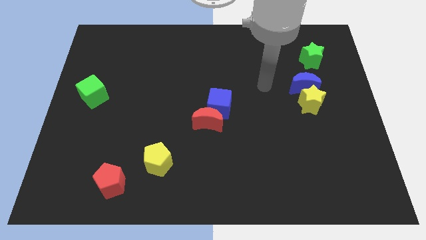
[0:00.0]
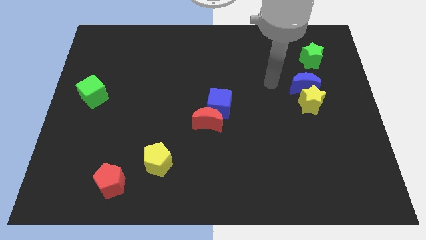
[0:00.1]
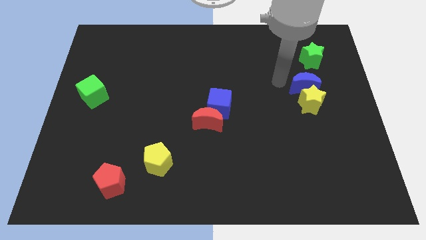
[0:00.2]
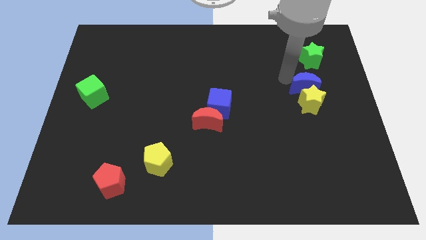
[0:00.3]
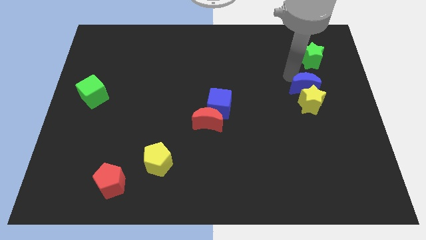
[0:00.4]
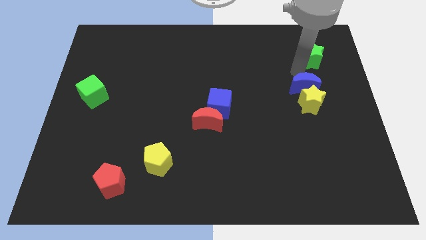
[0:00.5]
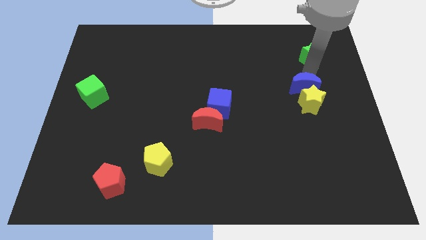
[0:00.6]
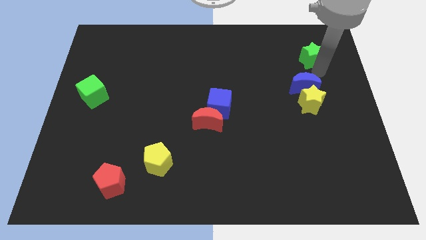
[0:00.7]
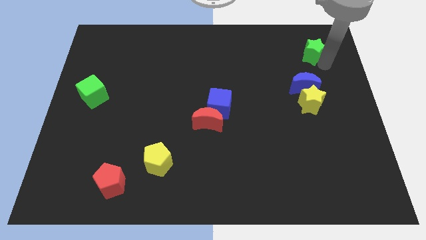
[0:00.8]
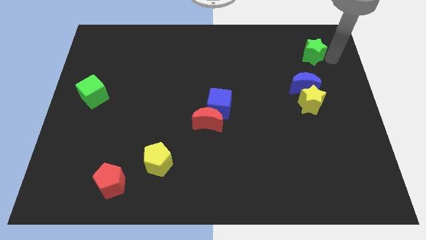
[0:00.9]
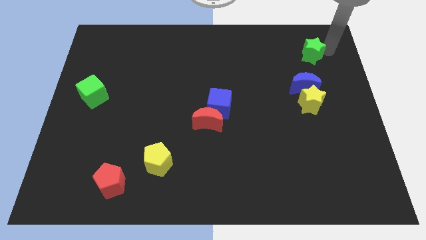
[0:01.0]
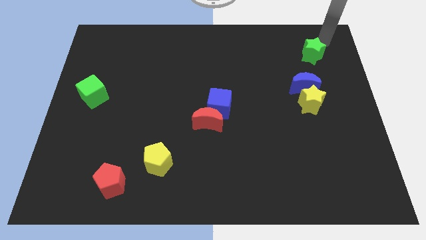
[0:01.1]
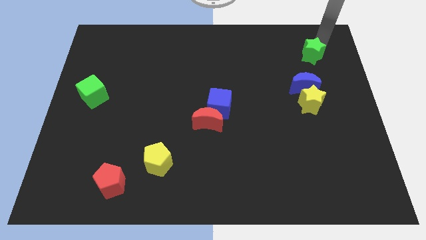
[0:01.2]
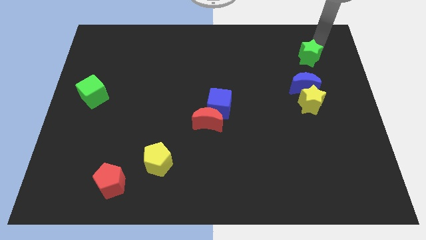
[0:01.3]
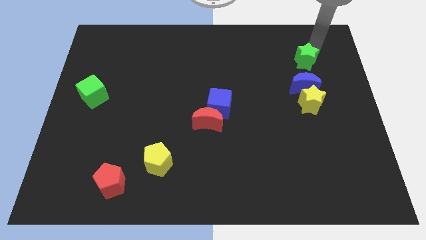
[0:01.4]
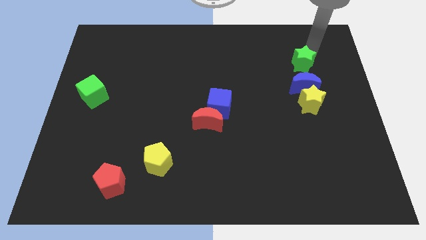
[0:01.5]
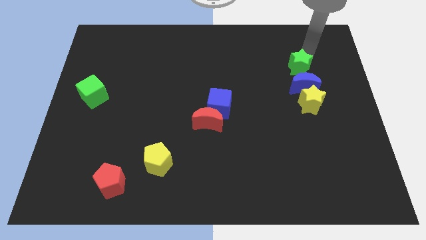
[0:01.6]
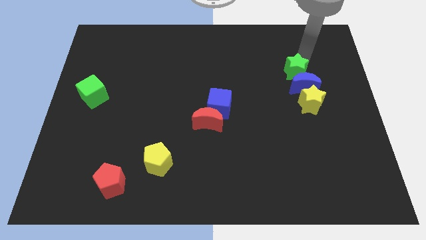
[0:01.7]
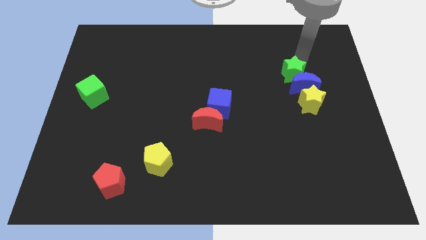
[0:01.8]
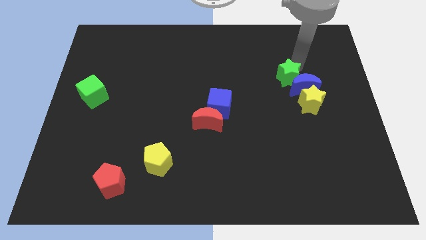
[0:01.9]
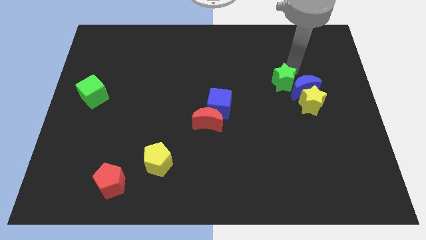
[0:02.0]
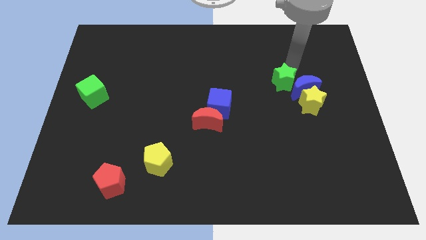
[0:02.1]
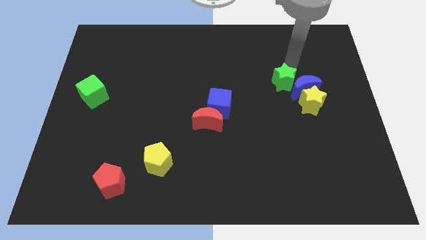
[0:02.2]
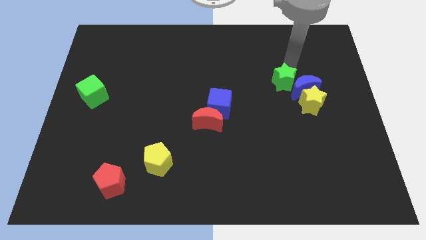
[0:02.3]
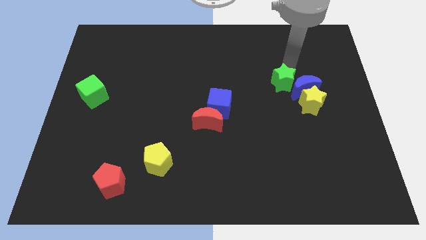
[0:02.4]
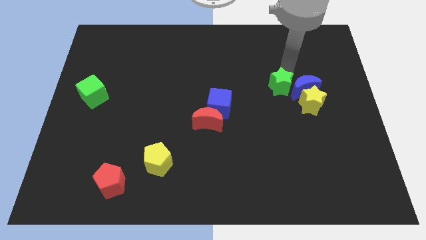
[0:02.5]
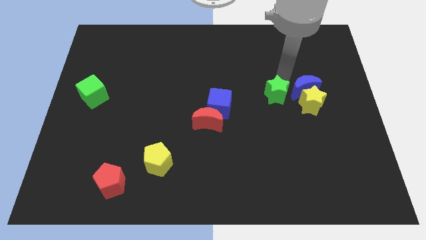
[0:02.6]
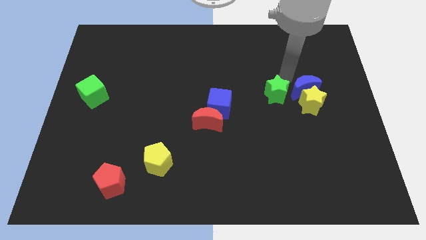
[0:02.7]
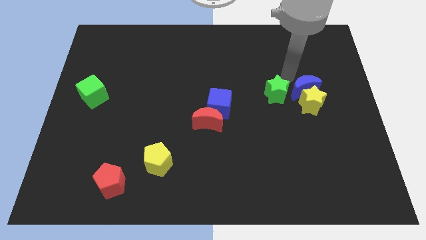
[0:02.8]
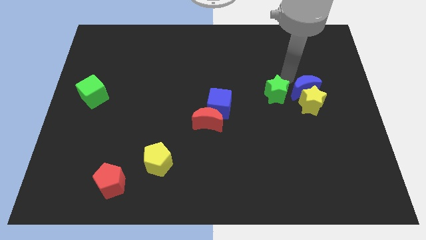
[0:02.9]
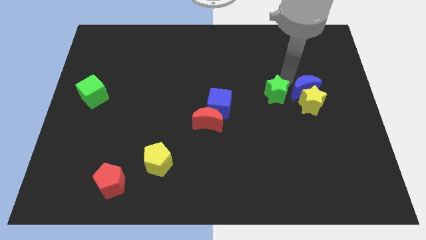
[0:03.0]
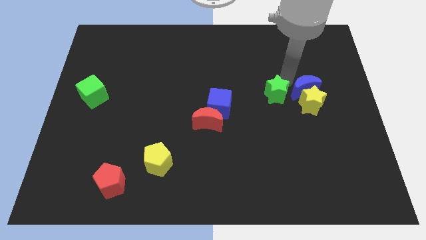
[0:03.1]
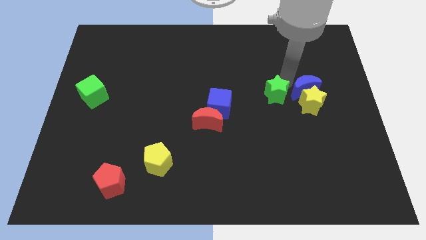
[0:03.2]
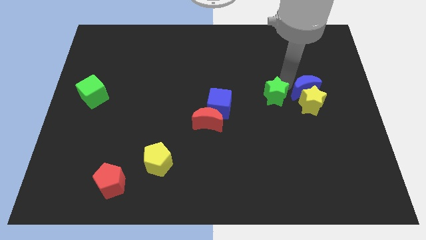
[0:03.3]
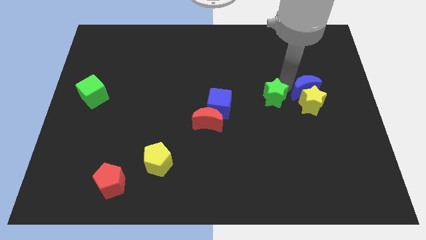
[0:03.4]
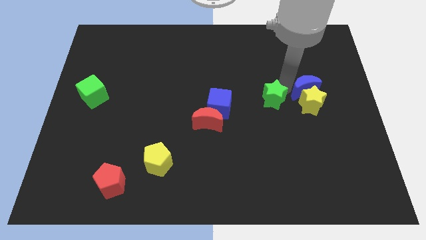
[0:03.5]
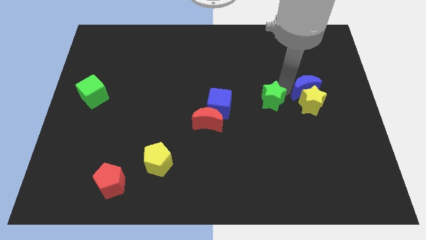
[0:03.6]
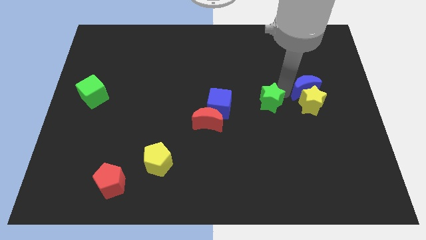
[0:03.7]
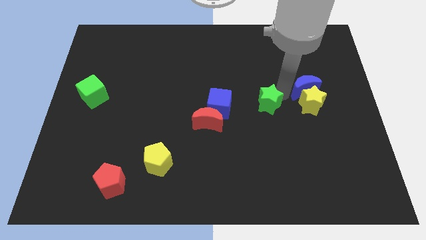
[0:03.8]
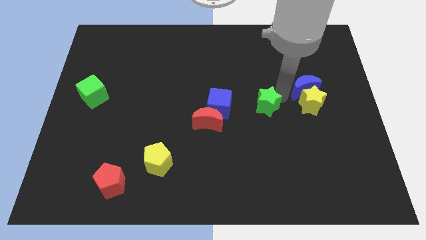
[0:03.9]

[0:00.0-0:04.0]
move the green star downwards and then to the left

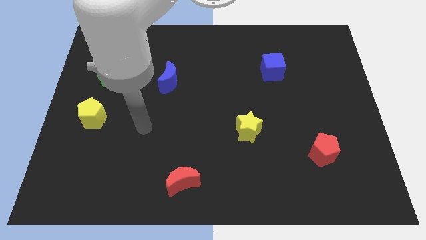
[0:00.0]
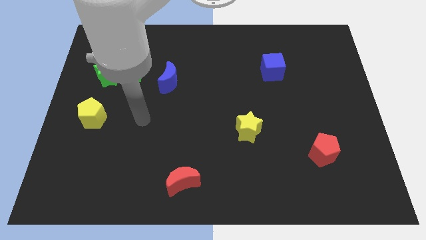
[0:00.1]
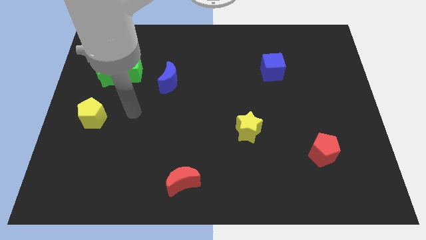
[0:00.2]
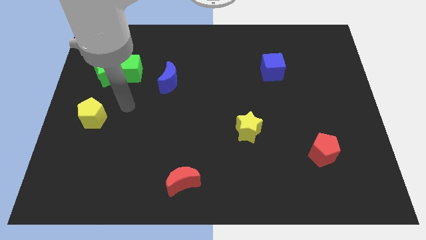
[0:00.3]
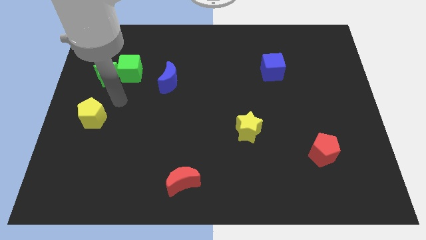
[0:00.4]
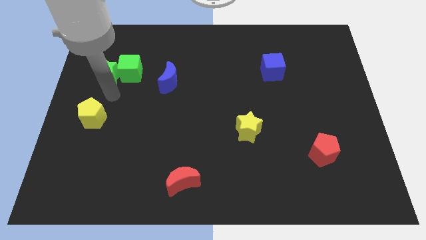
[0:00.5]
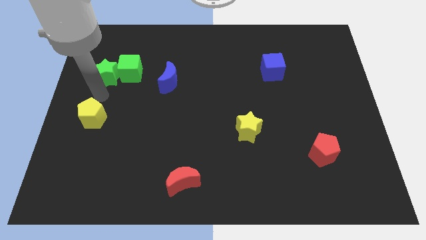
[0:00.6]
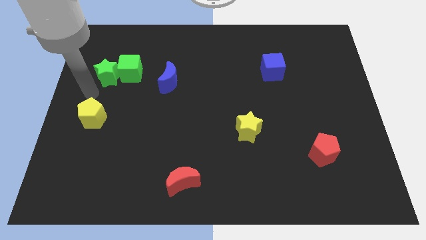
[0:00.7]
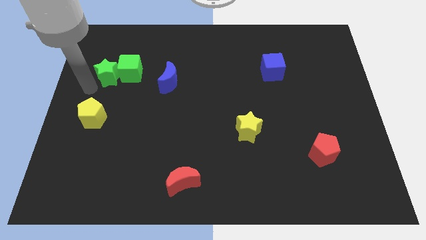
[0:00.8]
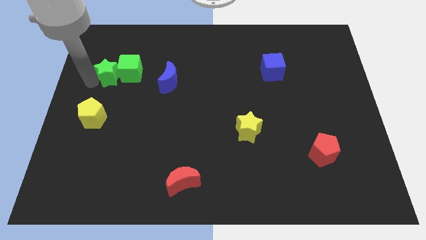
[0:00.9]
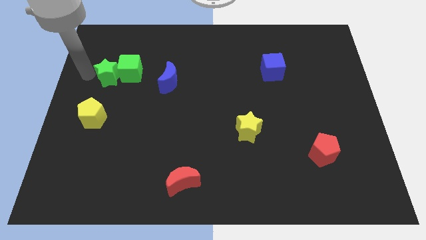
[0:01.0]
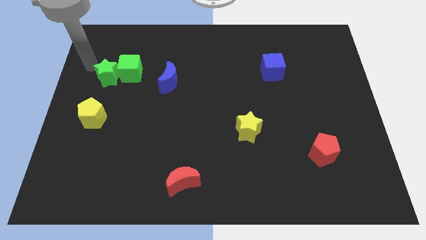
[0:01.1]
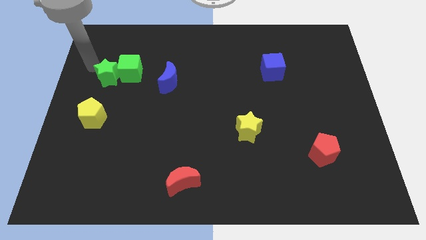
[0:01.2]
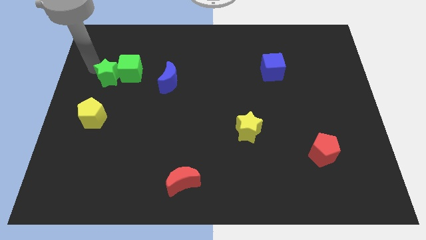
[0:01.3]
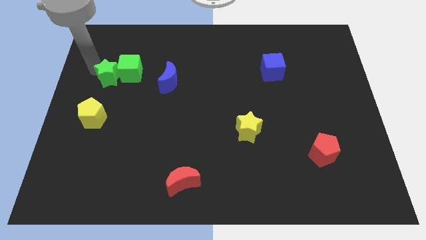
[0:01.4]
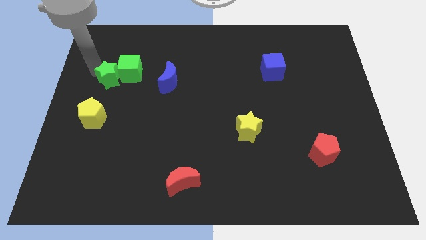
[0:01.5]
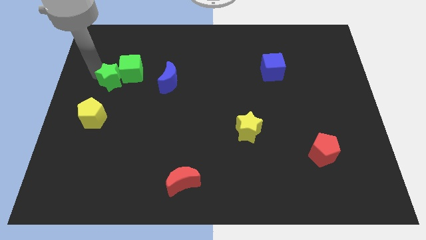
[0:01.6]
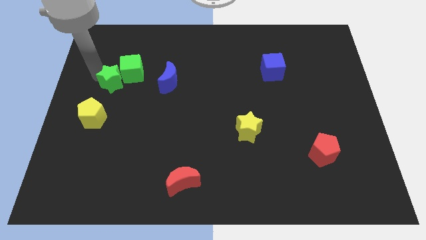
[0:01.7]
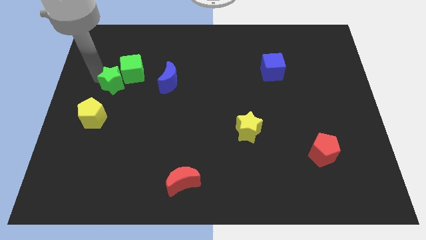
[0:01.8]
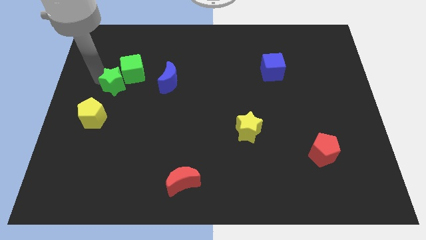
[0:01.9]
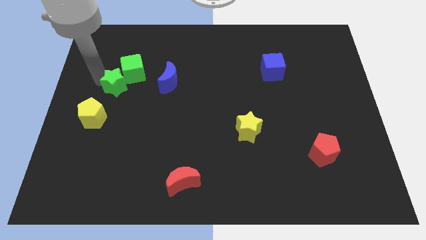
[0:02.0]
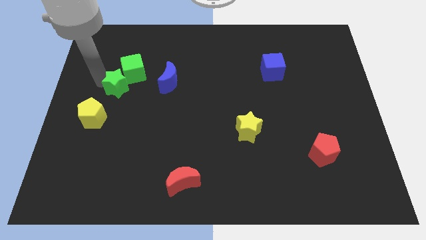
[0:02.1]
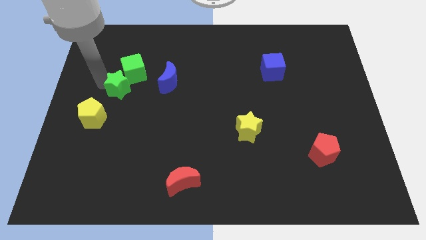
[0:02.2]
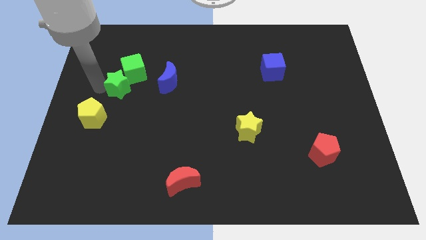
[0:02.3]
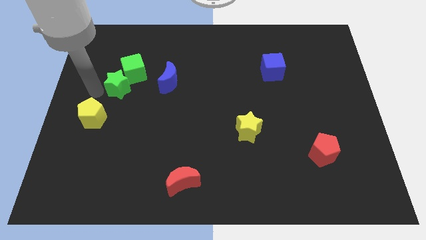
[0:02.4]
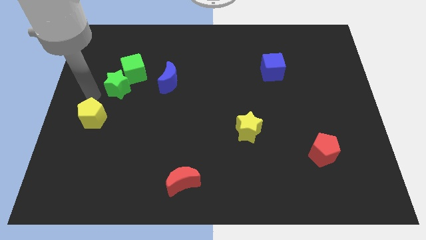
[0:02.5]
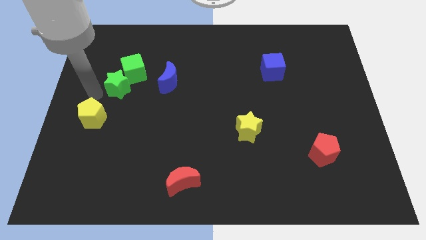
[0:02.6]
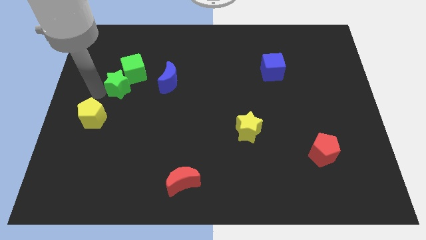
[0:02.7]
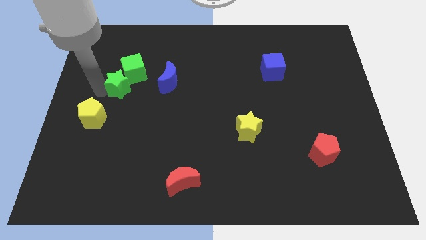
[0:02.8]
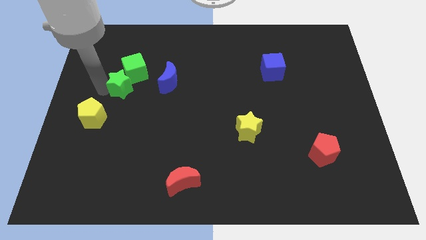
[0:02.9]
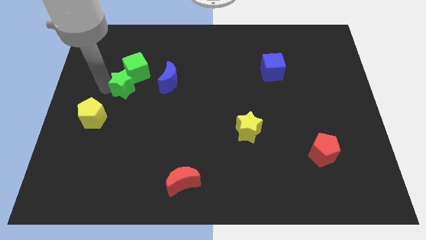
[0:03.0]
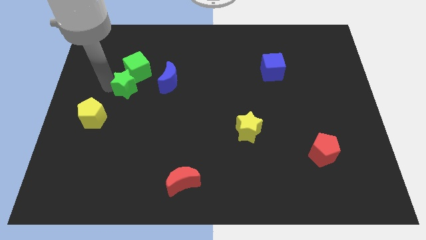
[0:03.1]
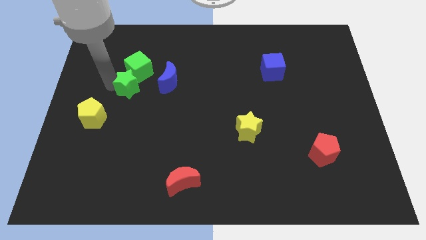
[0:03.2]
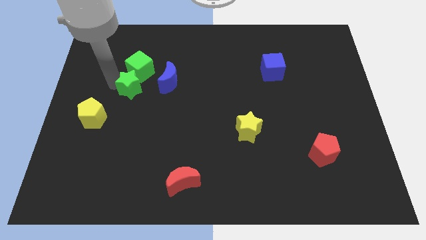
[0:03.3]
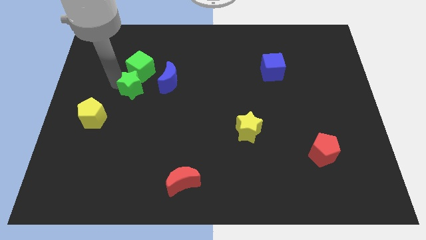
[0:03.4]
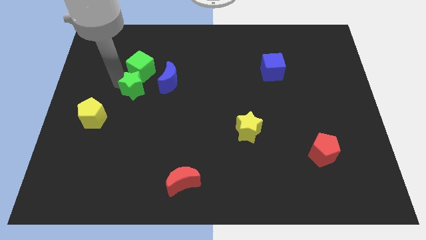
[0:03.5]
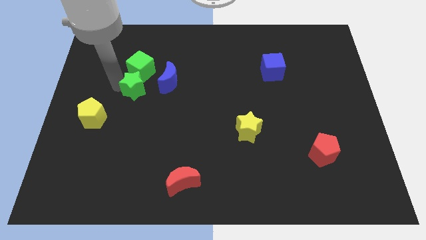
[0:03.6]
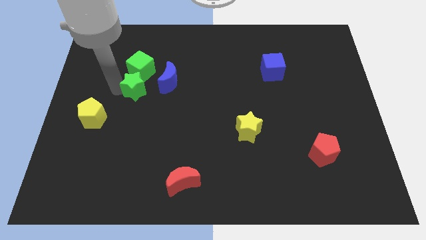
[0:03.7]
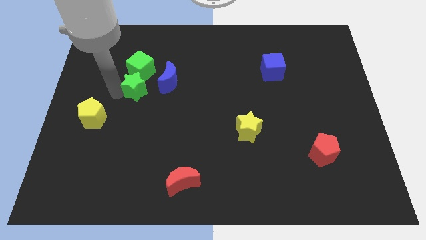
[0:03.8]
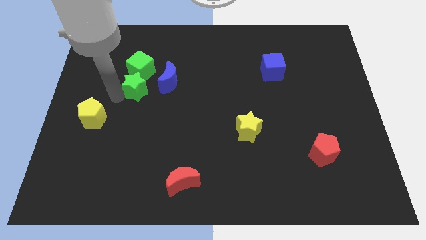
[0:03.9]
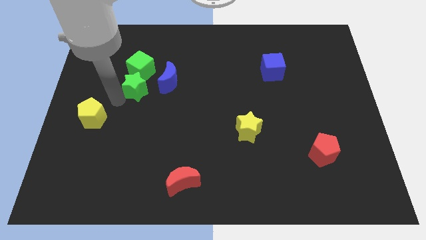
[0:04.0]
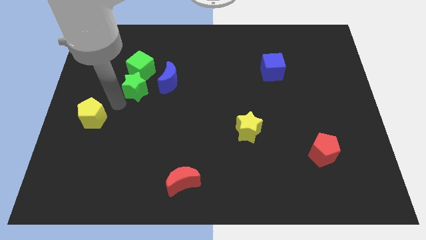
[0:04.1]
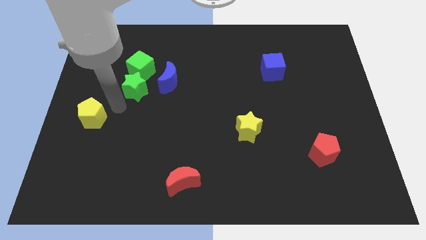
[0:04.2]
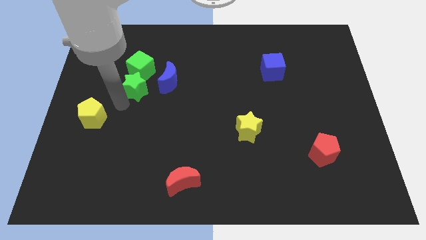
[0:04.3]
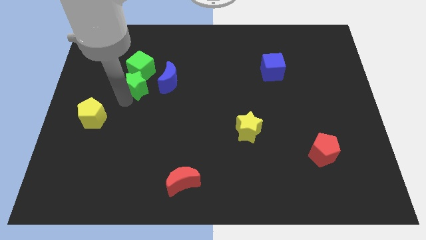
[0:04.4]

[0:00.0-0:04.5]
slightly slide the green star right
